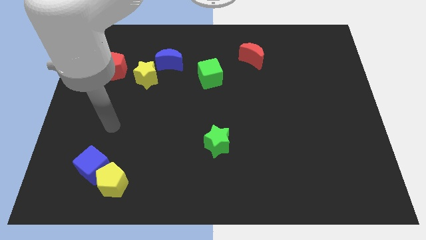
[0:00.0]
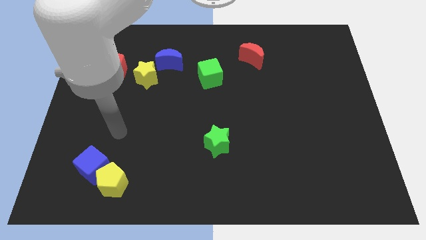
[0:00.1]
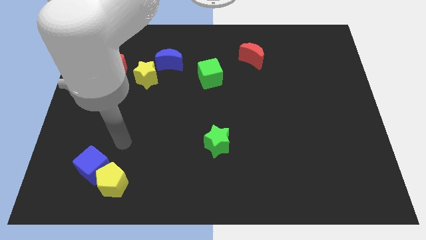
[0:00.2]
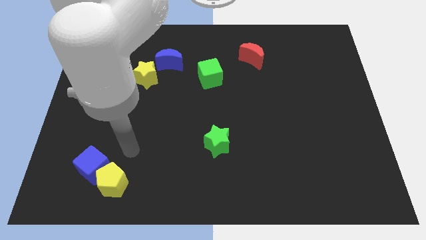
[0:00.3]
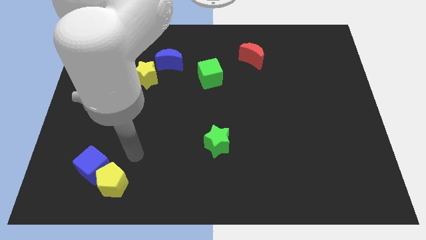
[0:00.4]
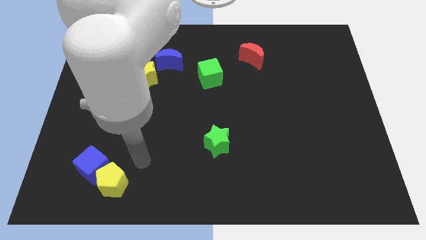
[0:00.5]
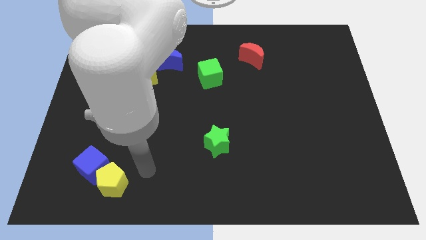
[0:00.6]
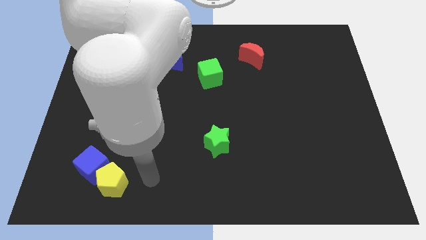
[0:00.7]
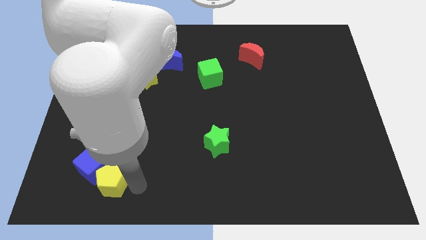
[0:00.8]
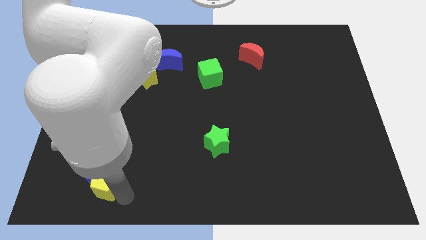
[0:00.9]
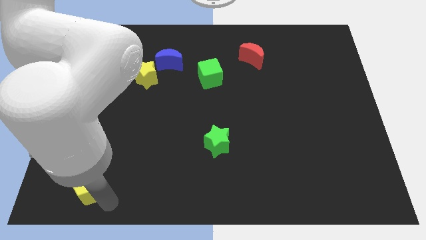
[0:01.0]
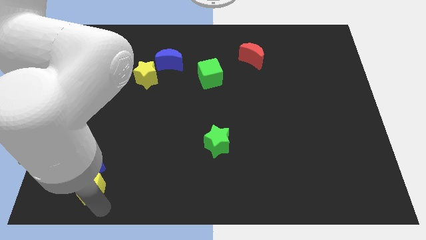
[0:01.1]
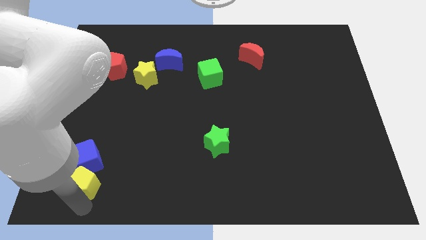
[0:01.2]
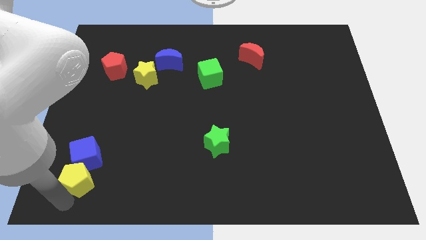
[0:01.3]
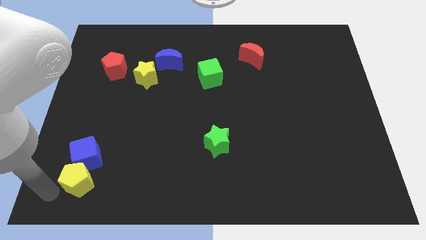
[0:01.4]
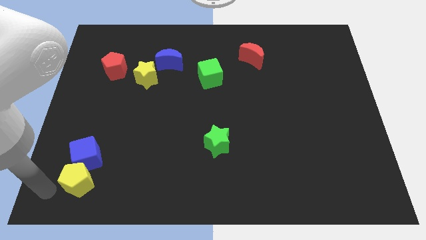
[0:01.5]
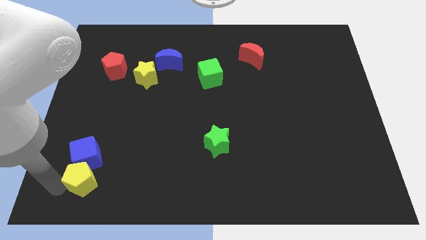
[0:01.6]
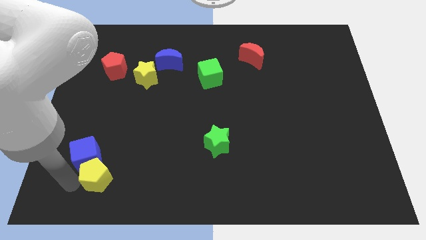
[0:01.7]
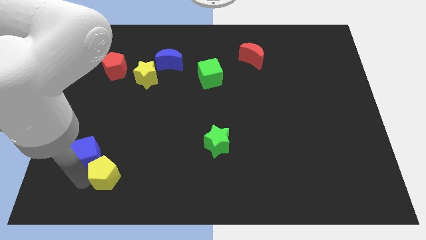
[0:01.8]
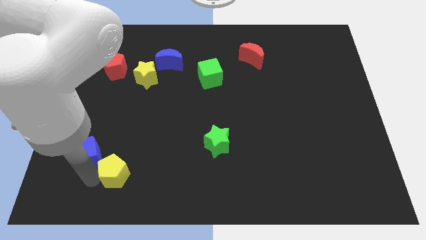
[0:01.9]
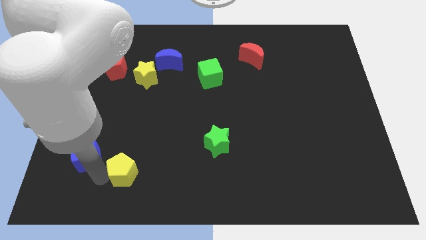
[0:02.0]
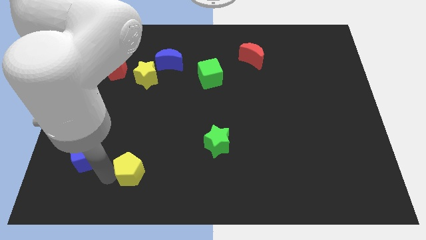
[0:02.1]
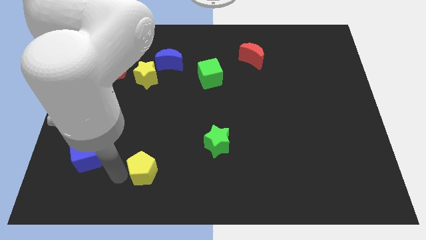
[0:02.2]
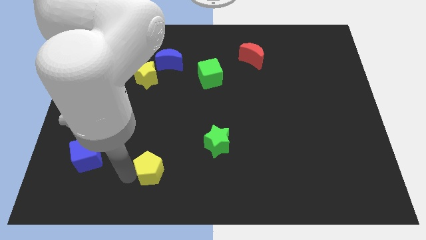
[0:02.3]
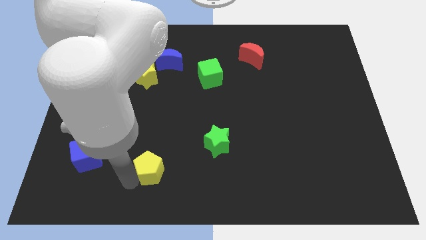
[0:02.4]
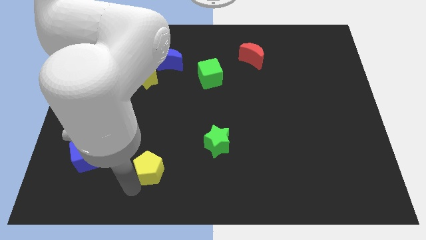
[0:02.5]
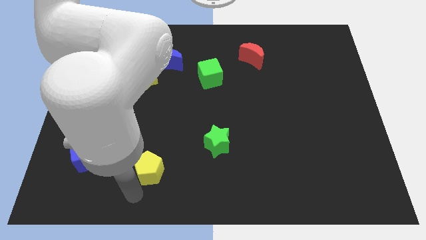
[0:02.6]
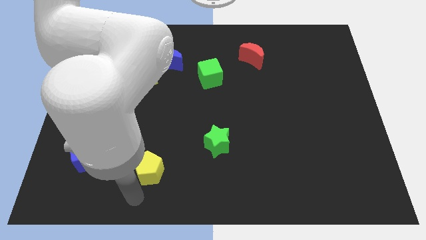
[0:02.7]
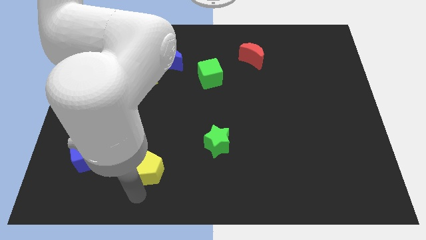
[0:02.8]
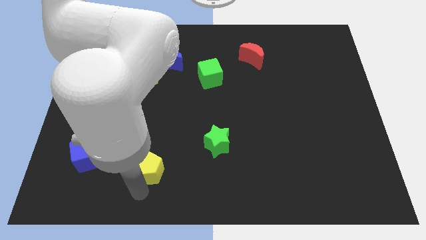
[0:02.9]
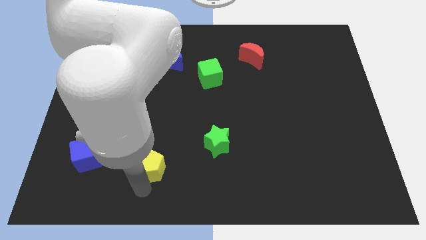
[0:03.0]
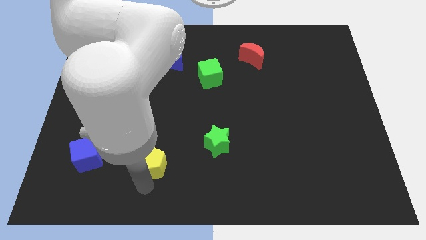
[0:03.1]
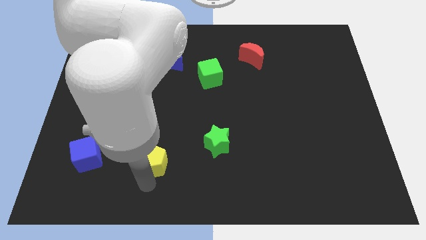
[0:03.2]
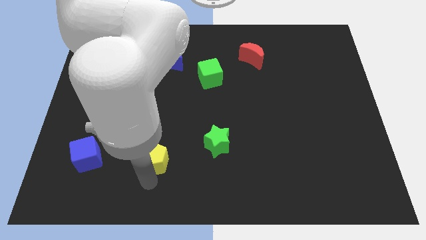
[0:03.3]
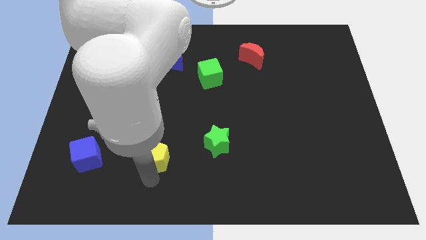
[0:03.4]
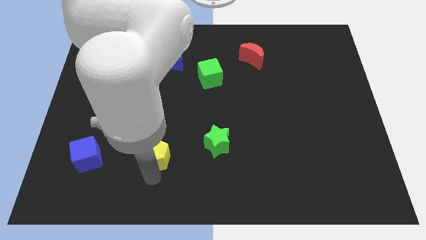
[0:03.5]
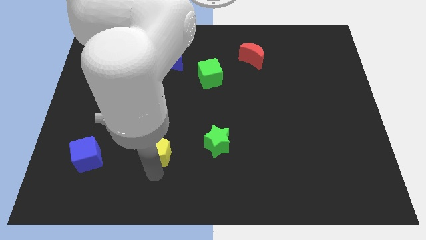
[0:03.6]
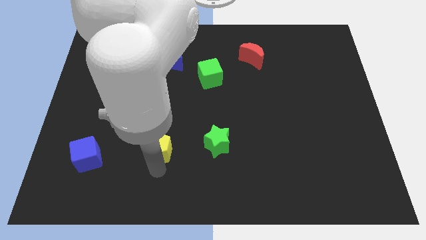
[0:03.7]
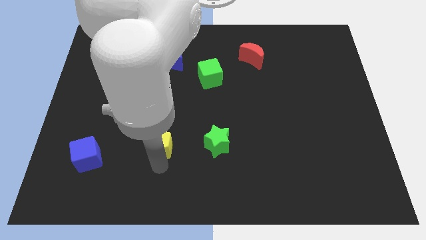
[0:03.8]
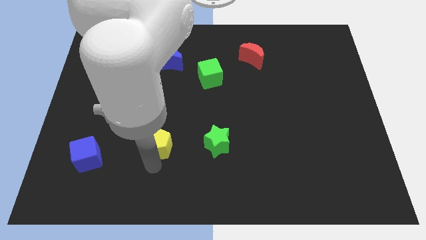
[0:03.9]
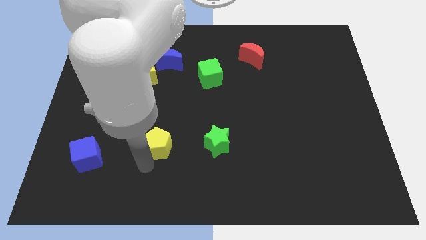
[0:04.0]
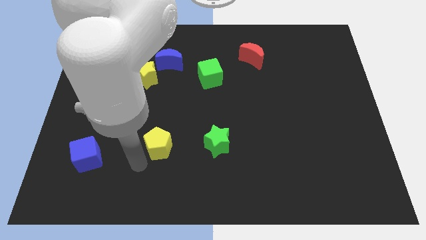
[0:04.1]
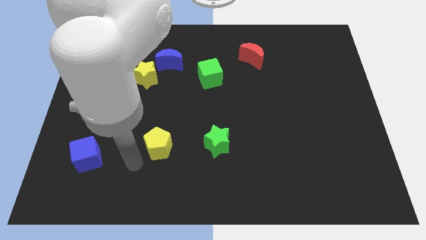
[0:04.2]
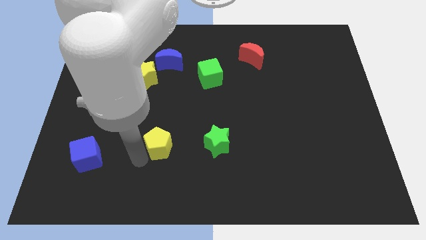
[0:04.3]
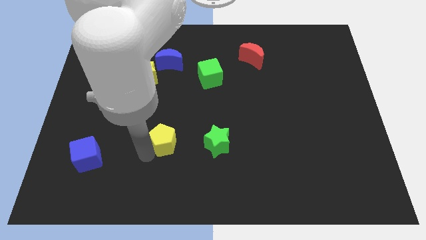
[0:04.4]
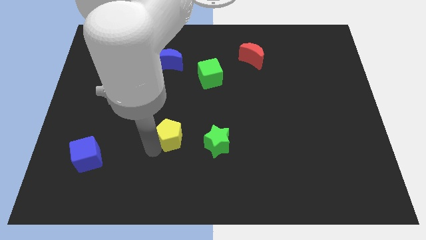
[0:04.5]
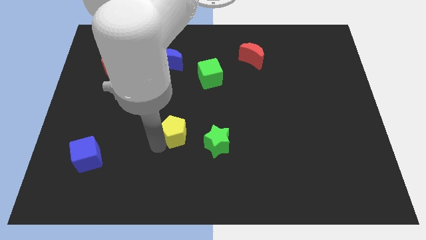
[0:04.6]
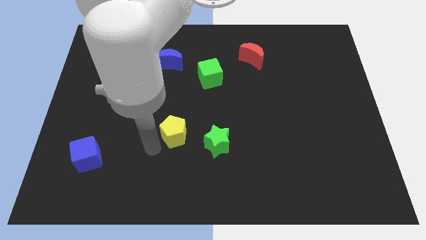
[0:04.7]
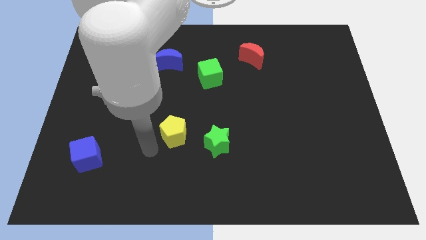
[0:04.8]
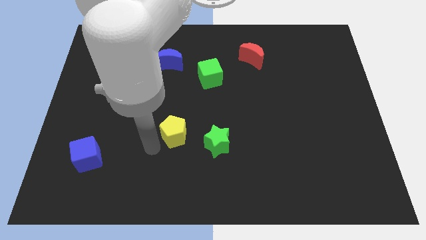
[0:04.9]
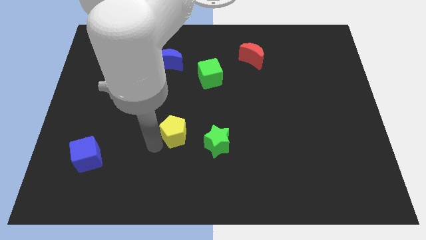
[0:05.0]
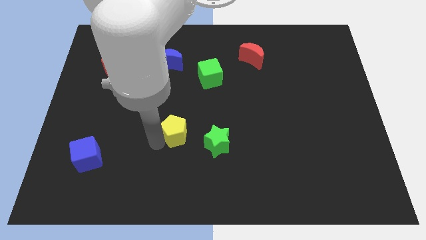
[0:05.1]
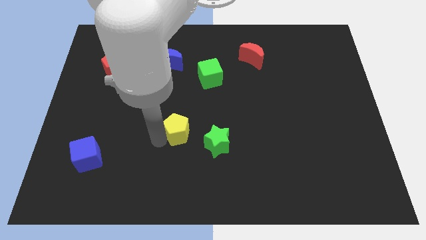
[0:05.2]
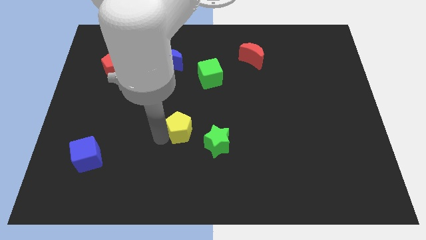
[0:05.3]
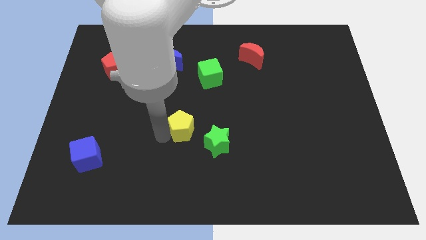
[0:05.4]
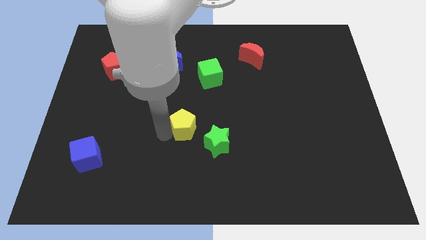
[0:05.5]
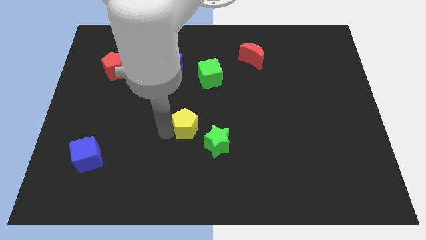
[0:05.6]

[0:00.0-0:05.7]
slide the yellow pentagon upwards and then to the right

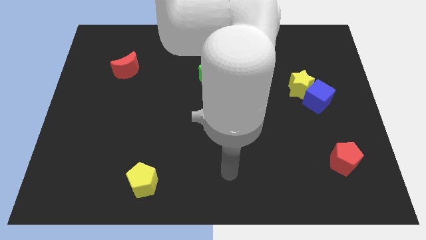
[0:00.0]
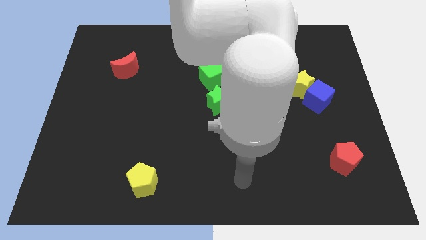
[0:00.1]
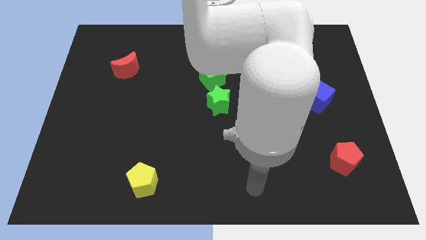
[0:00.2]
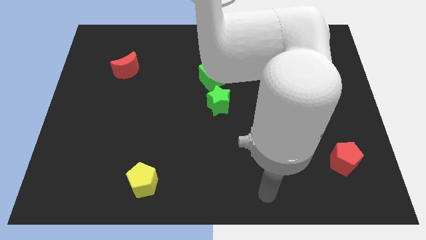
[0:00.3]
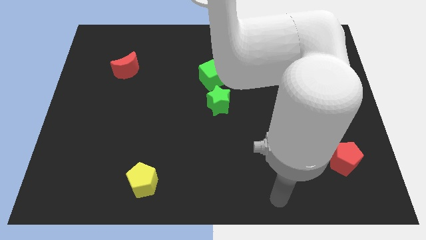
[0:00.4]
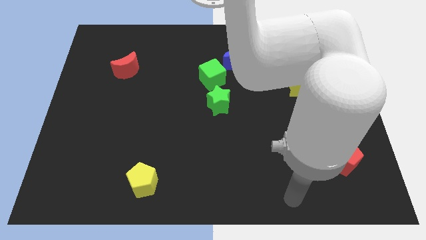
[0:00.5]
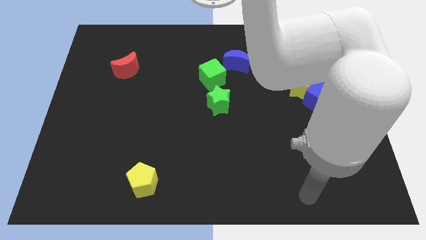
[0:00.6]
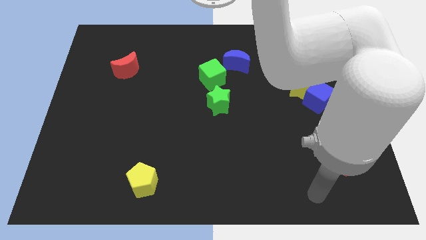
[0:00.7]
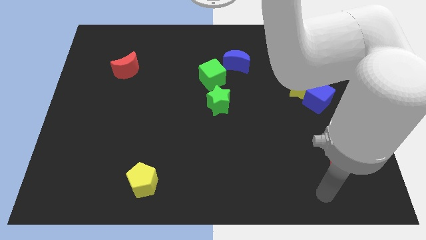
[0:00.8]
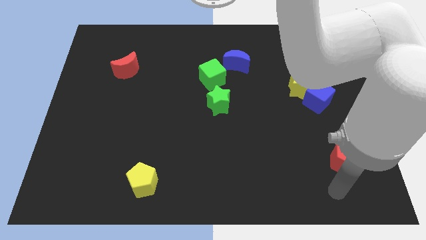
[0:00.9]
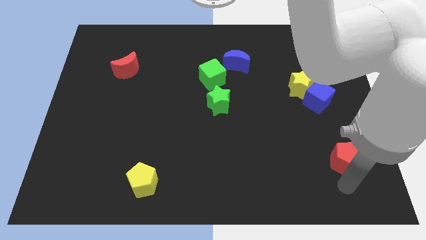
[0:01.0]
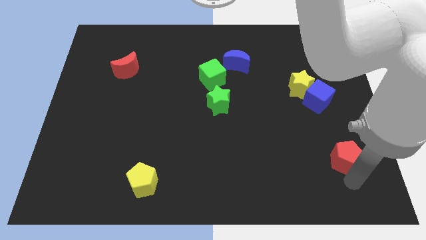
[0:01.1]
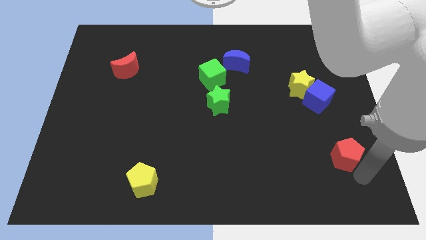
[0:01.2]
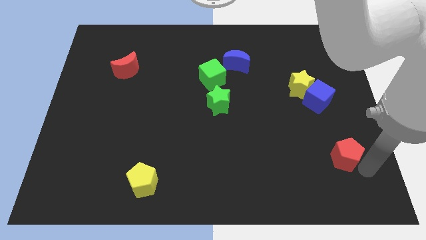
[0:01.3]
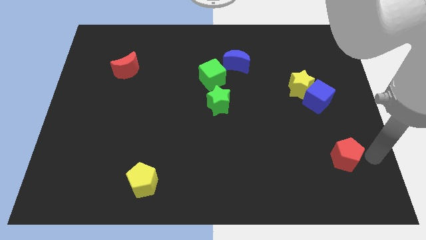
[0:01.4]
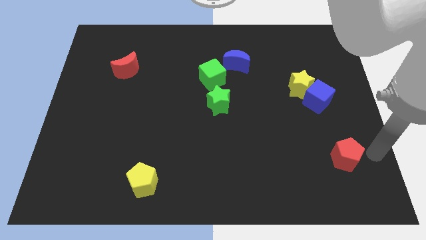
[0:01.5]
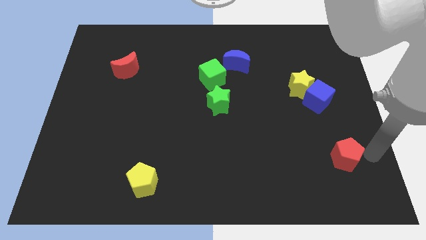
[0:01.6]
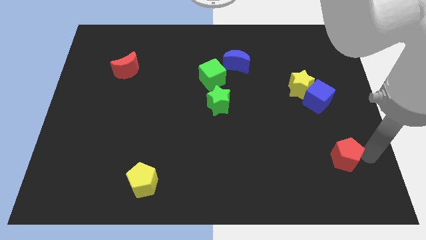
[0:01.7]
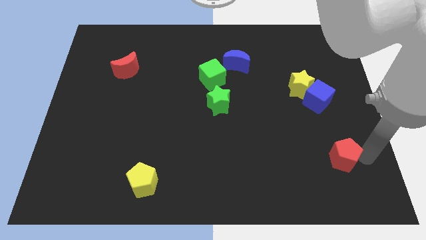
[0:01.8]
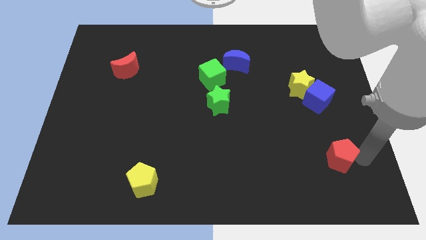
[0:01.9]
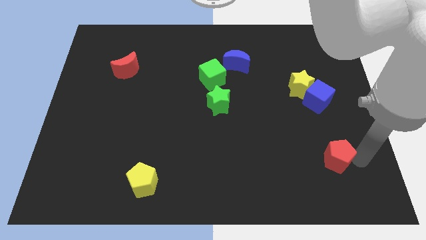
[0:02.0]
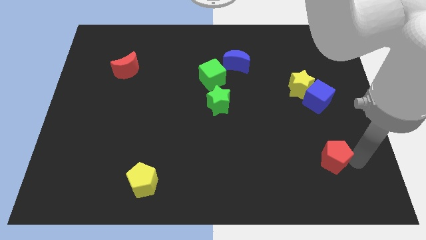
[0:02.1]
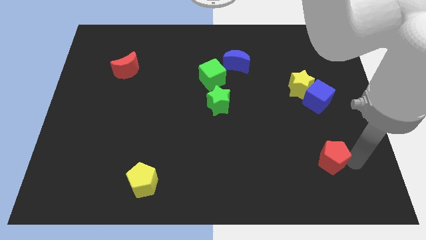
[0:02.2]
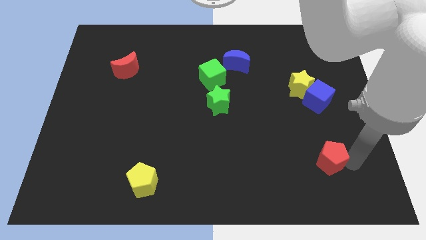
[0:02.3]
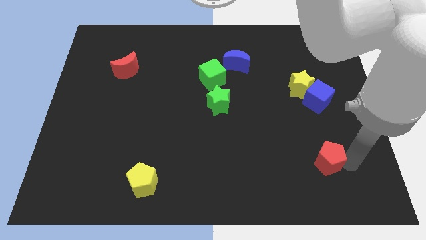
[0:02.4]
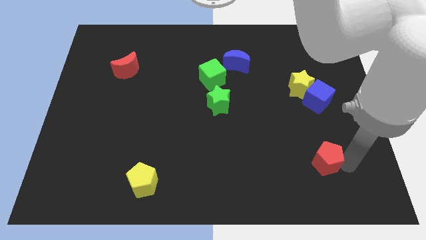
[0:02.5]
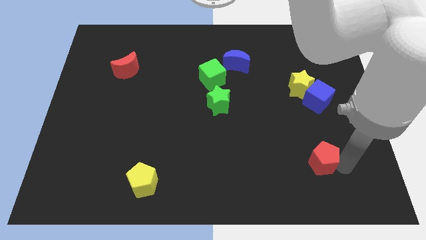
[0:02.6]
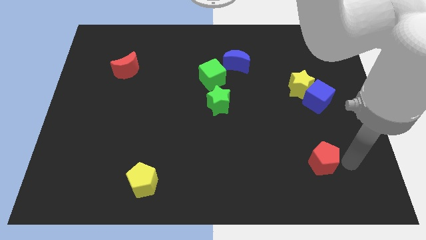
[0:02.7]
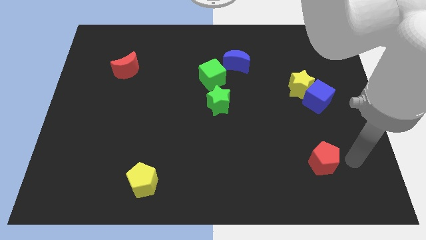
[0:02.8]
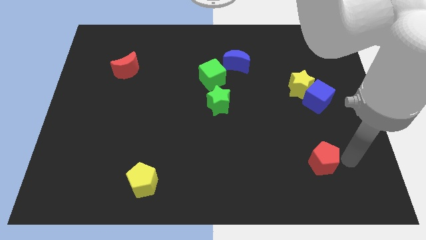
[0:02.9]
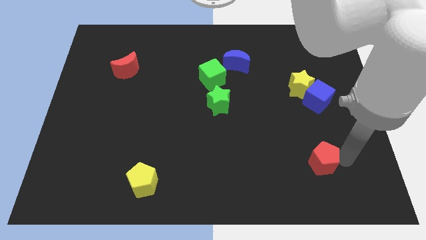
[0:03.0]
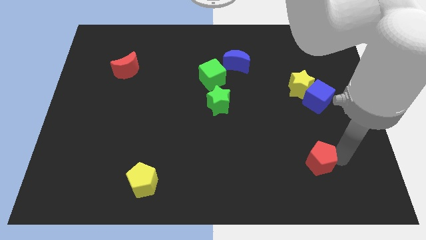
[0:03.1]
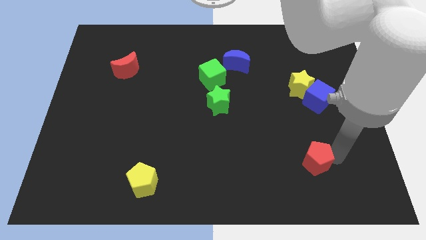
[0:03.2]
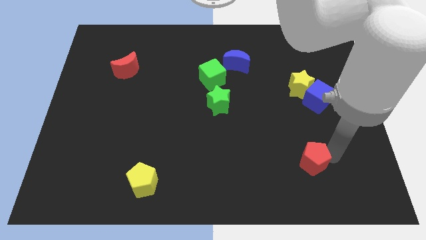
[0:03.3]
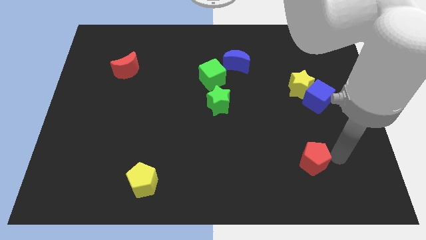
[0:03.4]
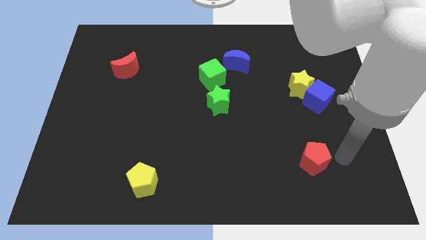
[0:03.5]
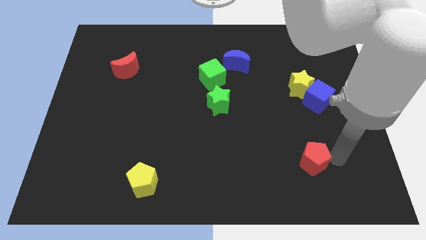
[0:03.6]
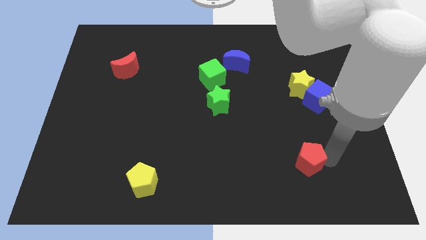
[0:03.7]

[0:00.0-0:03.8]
push the red pentagon left a little
